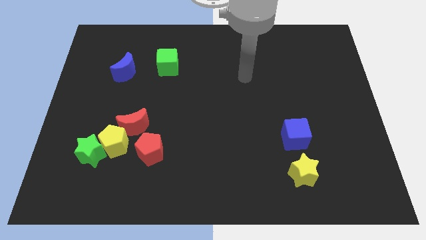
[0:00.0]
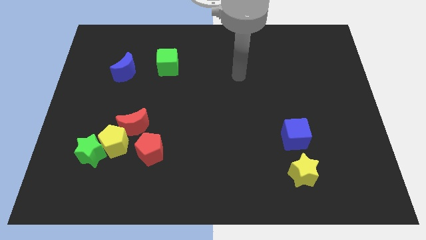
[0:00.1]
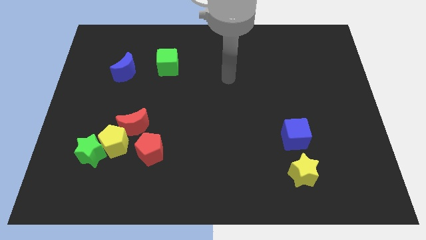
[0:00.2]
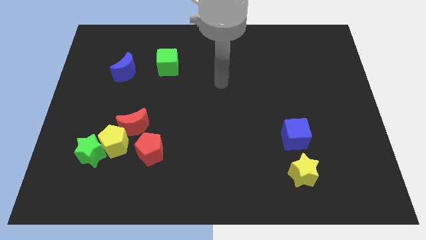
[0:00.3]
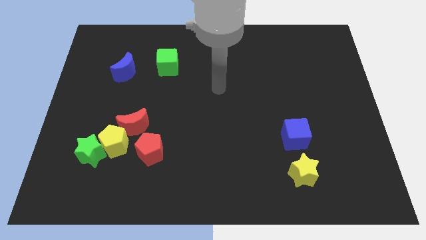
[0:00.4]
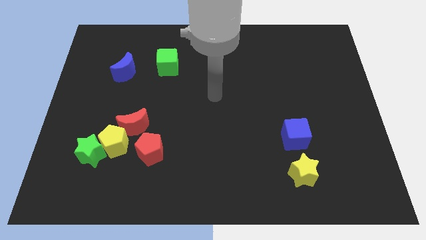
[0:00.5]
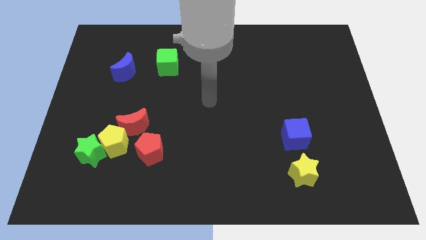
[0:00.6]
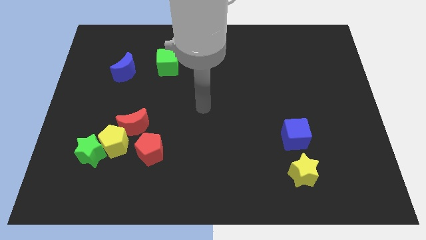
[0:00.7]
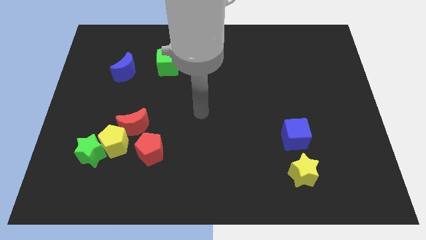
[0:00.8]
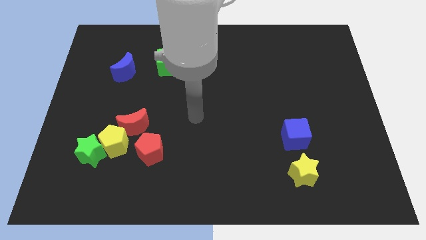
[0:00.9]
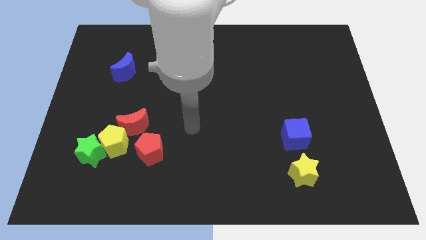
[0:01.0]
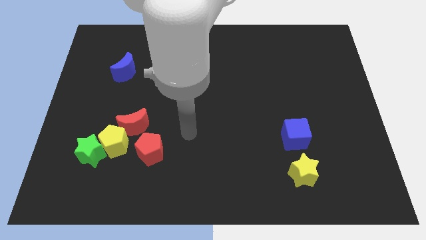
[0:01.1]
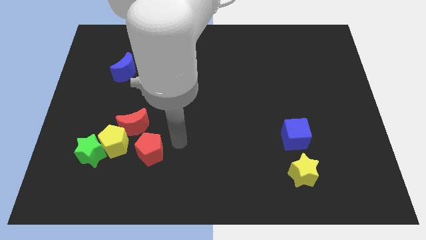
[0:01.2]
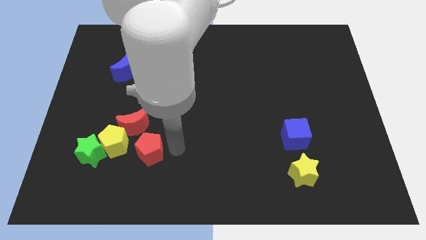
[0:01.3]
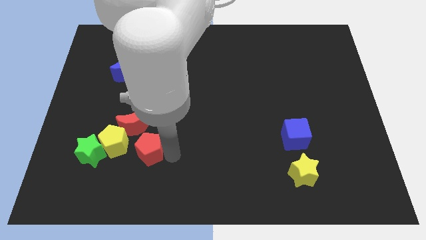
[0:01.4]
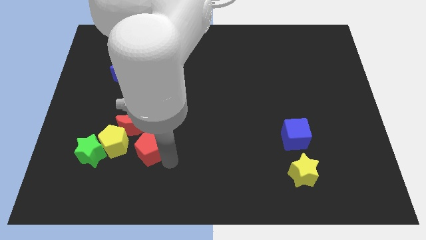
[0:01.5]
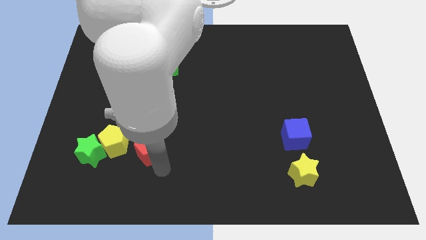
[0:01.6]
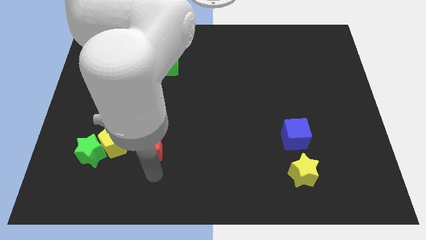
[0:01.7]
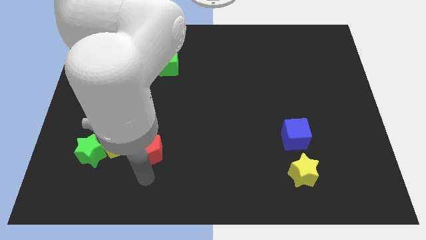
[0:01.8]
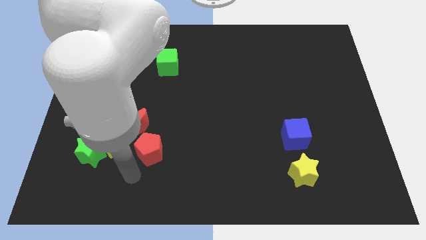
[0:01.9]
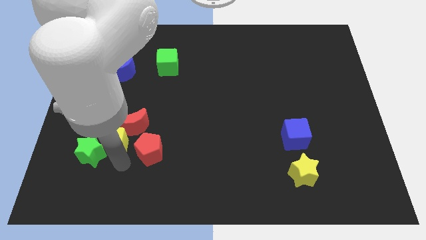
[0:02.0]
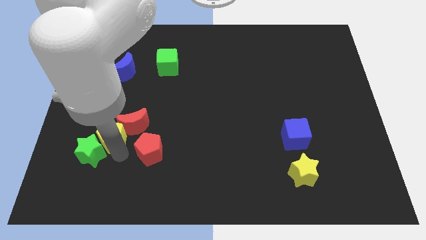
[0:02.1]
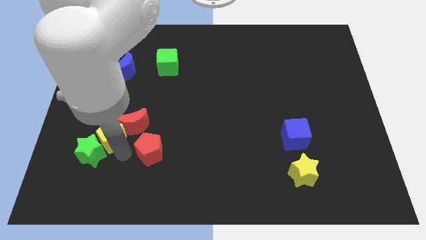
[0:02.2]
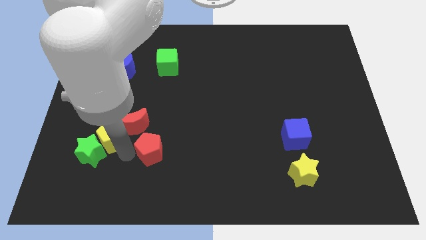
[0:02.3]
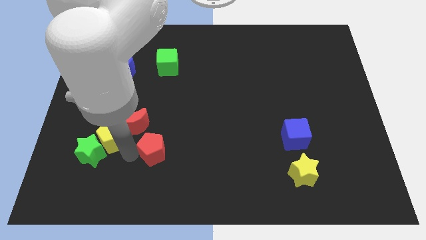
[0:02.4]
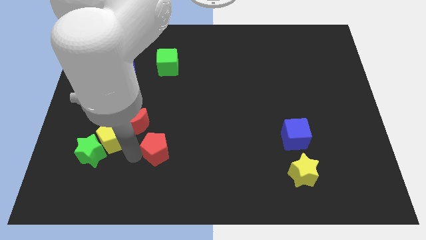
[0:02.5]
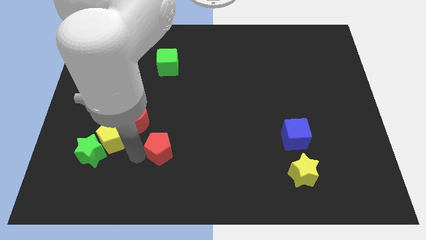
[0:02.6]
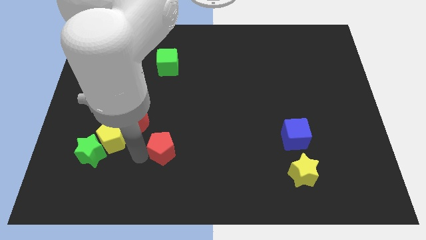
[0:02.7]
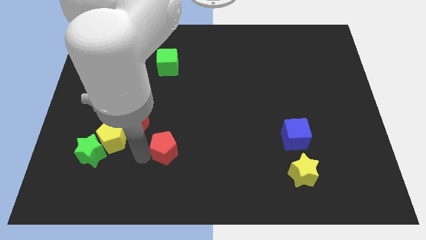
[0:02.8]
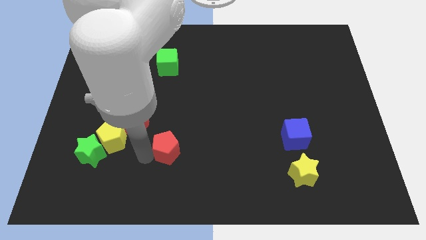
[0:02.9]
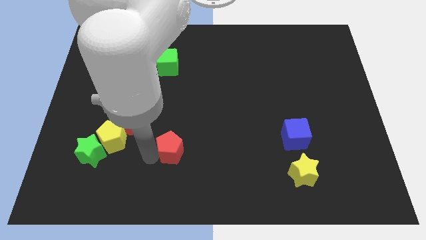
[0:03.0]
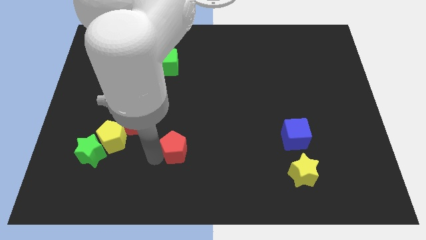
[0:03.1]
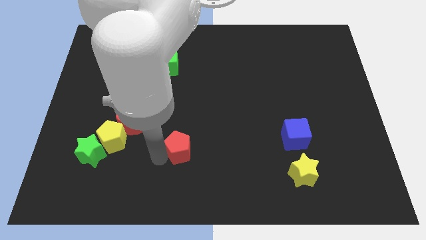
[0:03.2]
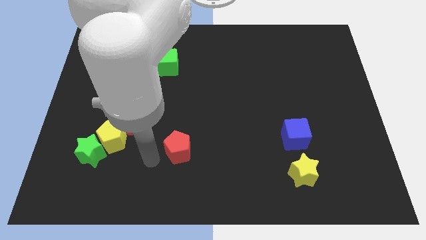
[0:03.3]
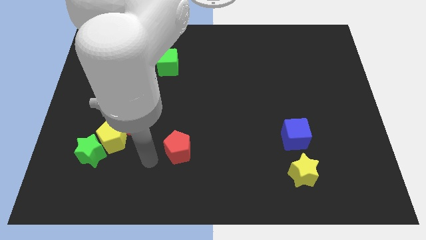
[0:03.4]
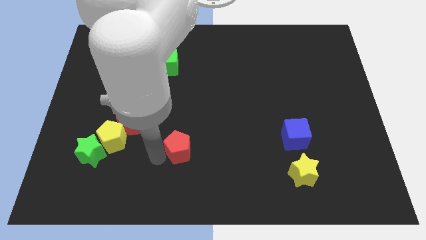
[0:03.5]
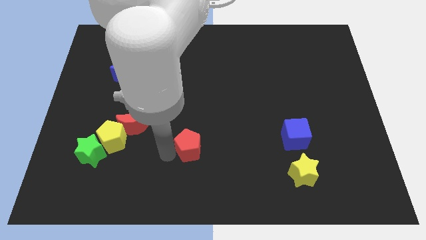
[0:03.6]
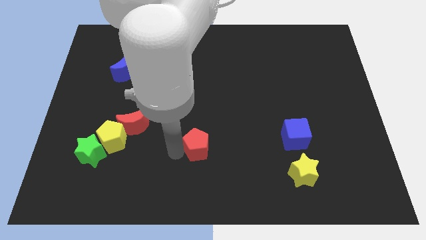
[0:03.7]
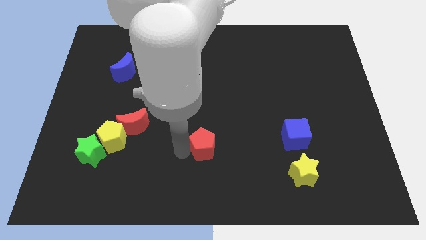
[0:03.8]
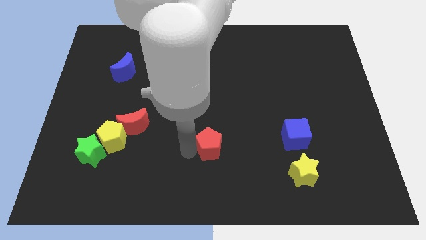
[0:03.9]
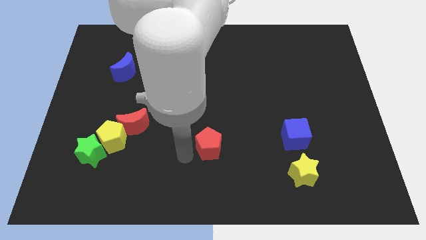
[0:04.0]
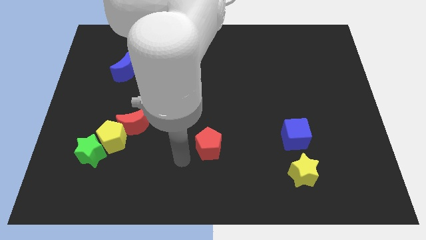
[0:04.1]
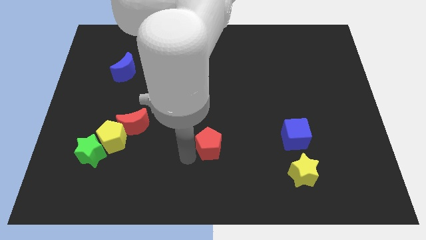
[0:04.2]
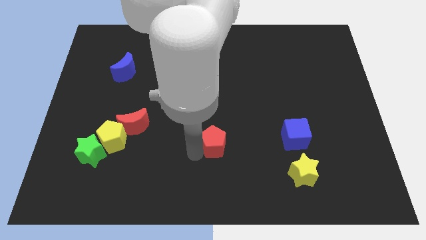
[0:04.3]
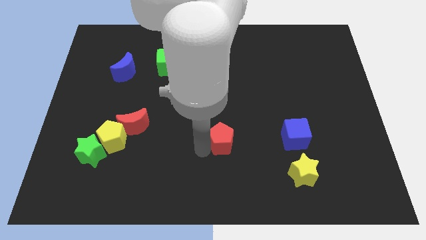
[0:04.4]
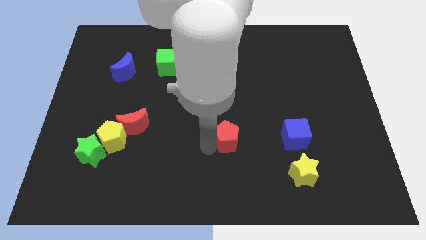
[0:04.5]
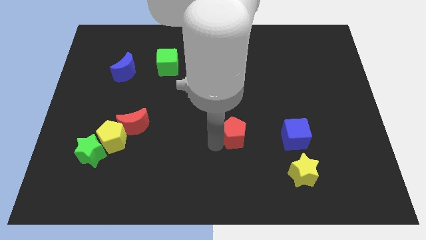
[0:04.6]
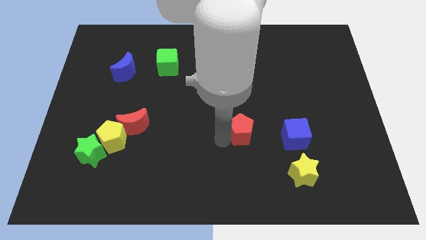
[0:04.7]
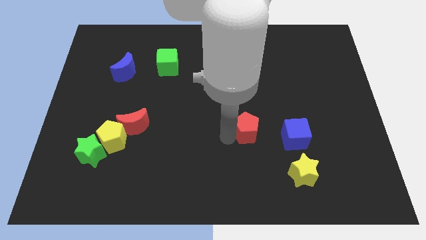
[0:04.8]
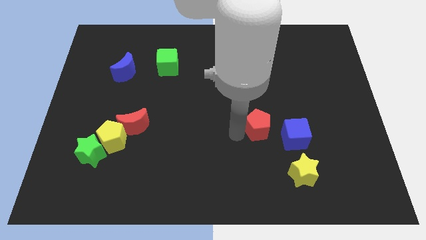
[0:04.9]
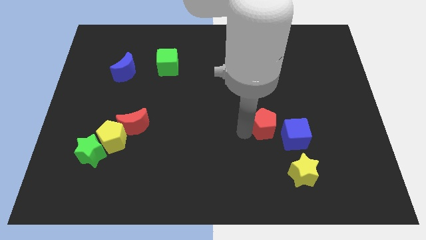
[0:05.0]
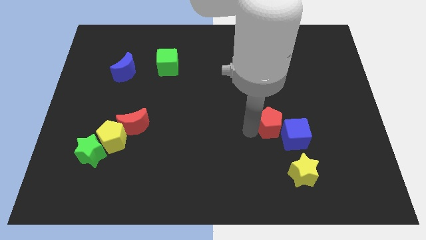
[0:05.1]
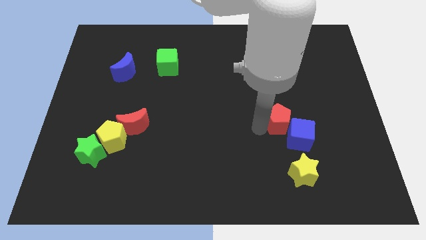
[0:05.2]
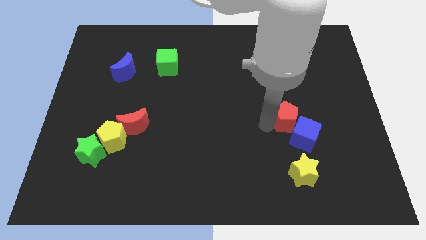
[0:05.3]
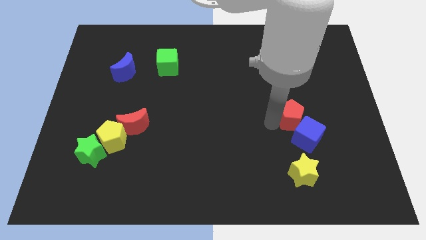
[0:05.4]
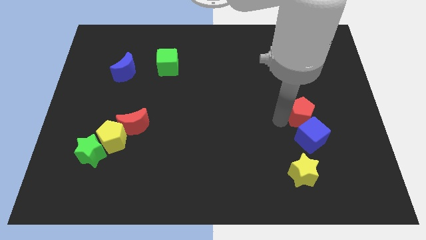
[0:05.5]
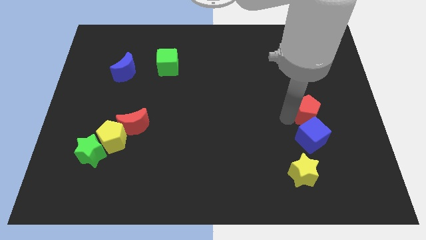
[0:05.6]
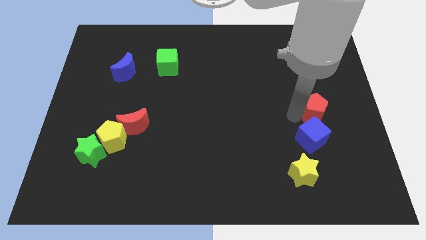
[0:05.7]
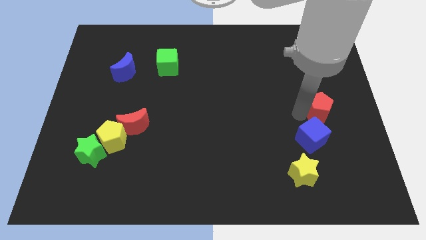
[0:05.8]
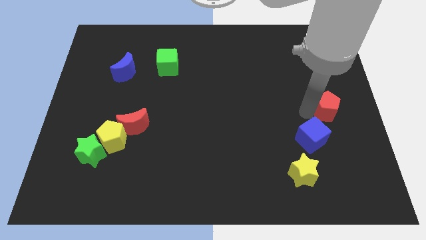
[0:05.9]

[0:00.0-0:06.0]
put the red pentagon to the right side of the board
